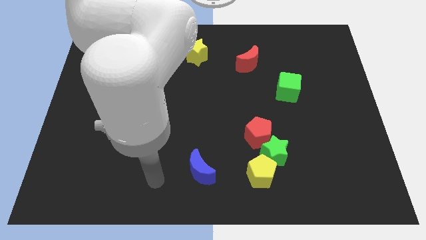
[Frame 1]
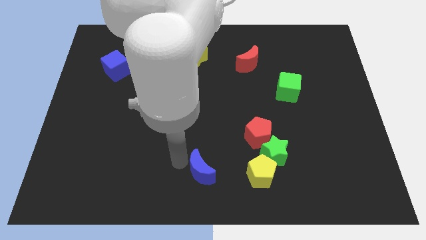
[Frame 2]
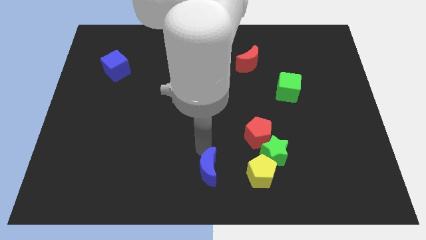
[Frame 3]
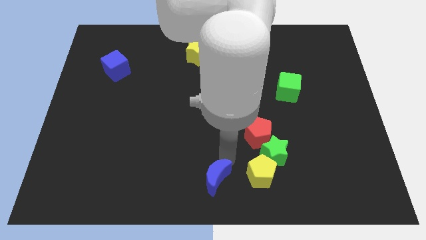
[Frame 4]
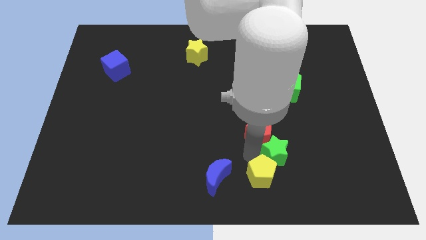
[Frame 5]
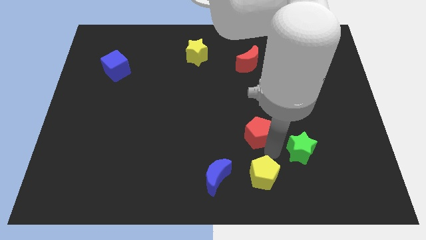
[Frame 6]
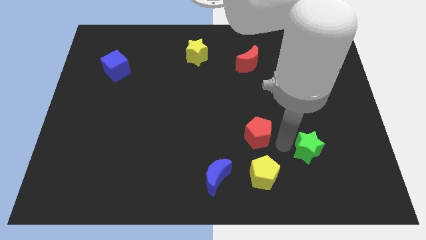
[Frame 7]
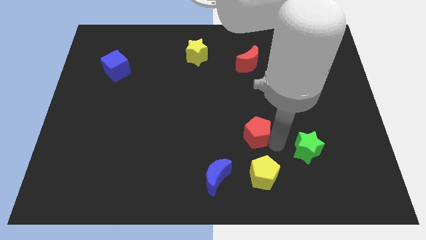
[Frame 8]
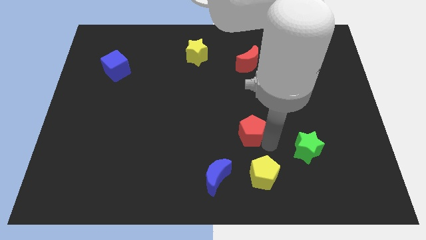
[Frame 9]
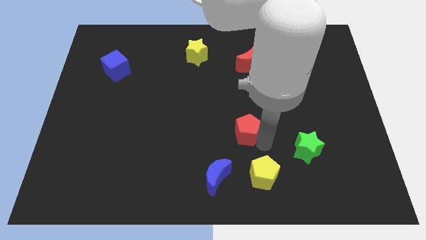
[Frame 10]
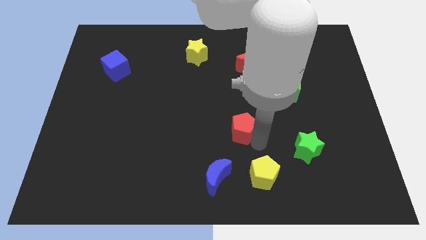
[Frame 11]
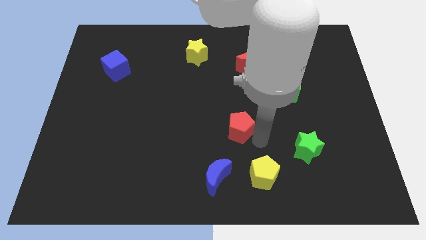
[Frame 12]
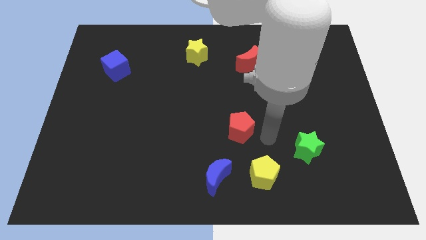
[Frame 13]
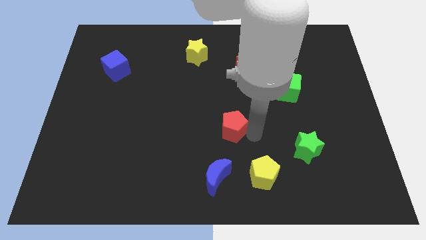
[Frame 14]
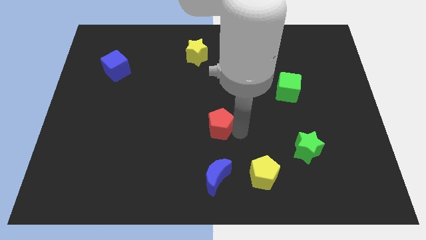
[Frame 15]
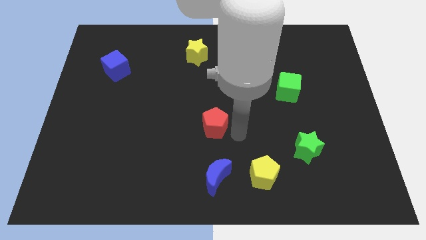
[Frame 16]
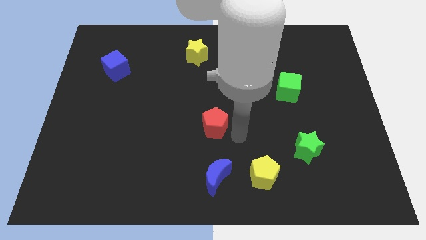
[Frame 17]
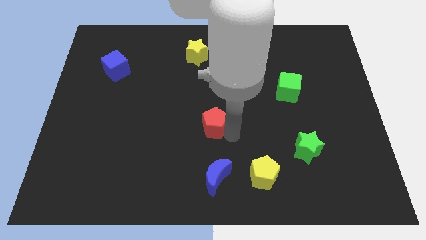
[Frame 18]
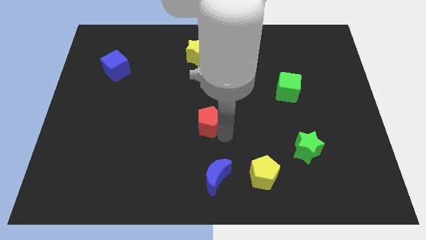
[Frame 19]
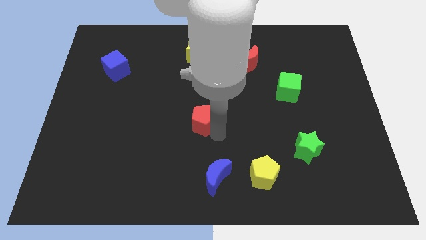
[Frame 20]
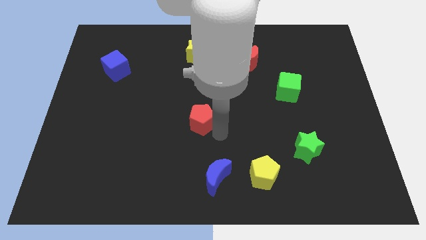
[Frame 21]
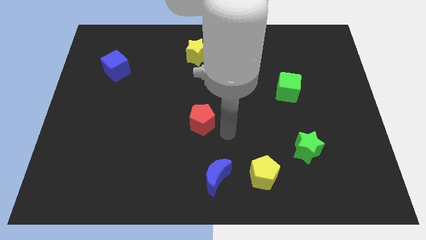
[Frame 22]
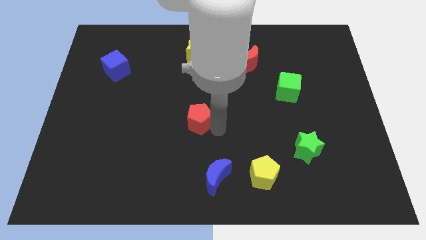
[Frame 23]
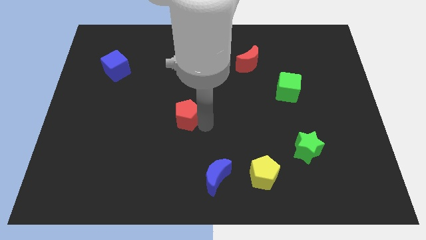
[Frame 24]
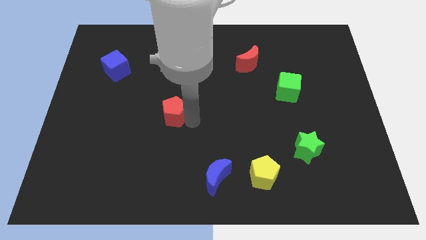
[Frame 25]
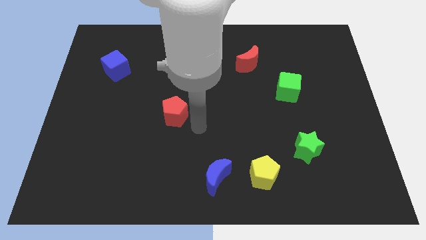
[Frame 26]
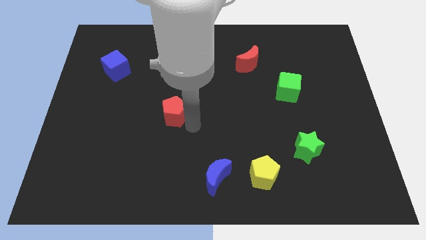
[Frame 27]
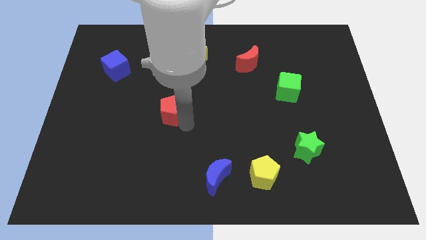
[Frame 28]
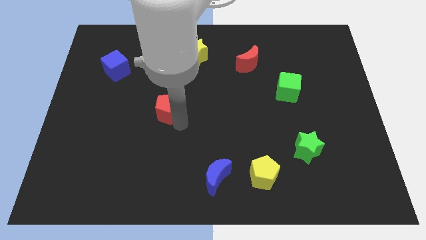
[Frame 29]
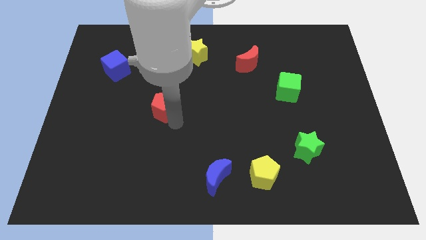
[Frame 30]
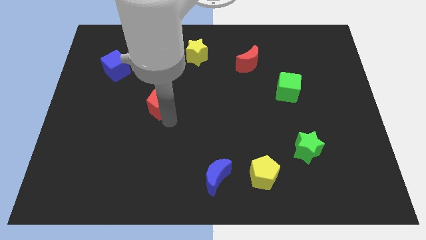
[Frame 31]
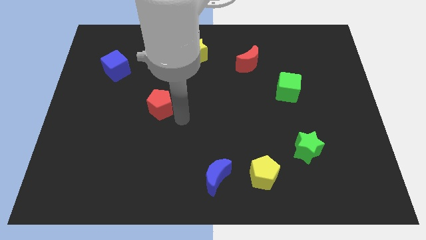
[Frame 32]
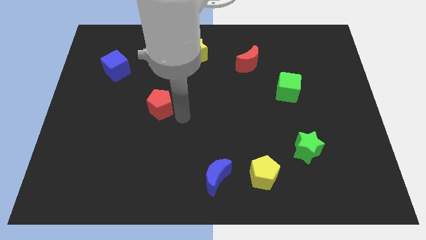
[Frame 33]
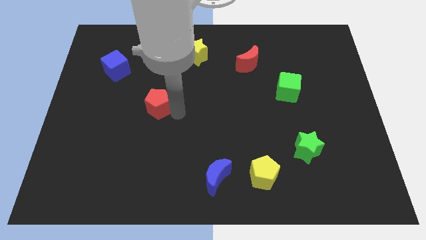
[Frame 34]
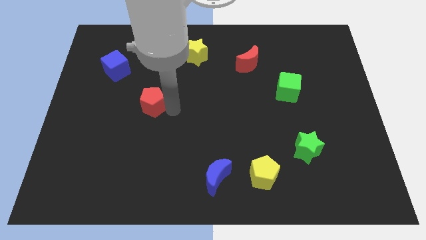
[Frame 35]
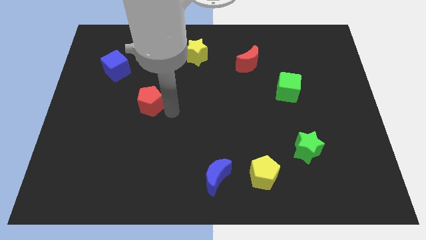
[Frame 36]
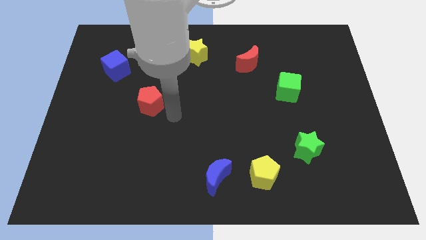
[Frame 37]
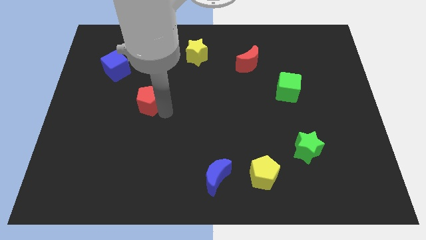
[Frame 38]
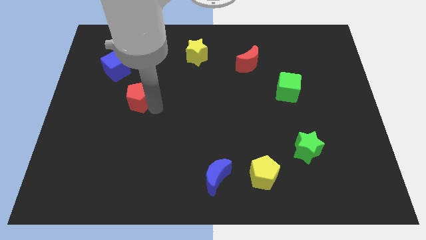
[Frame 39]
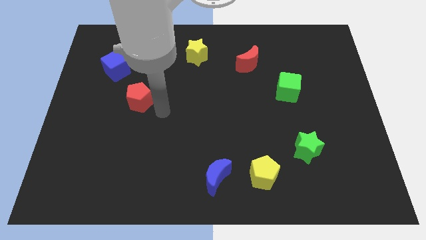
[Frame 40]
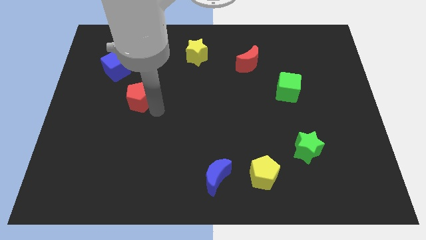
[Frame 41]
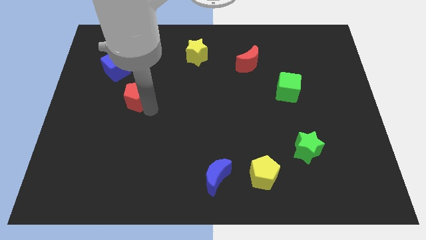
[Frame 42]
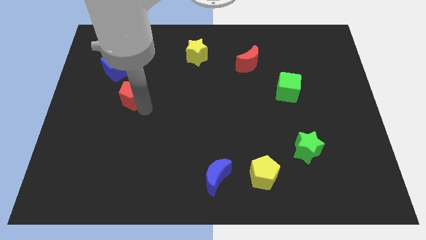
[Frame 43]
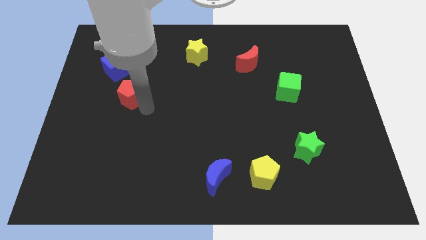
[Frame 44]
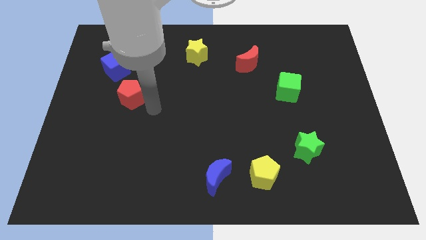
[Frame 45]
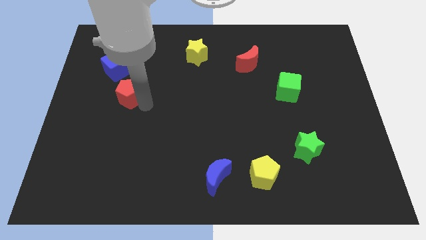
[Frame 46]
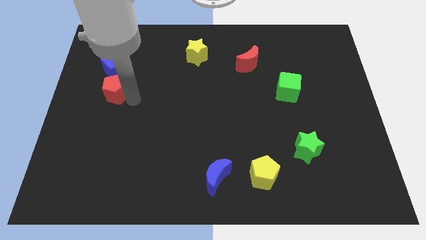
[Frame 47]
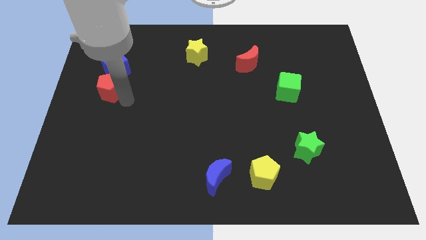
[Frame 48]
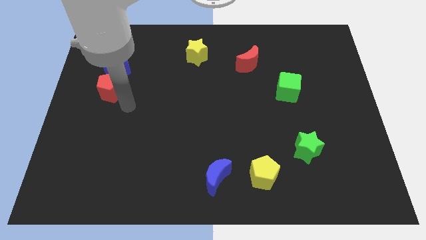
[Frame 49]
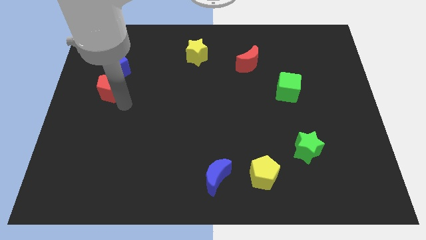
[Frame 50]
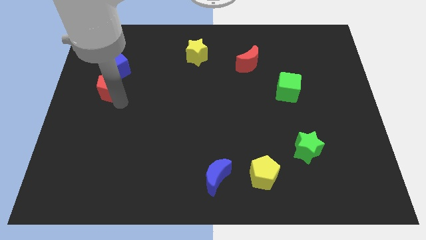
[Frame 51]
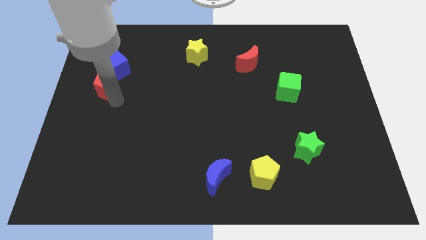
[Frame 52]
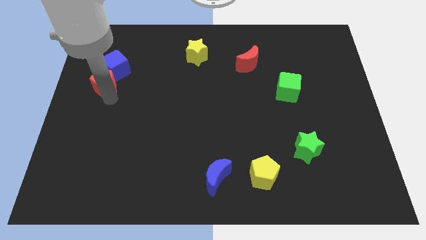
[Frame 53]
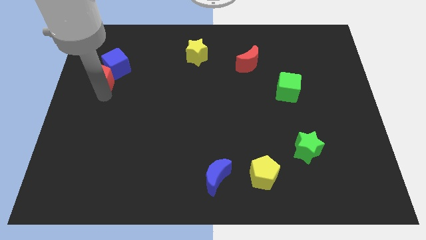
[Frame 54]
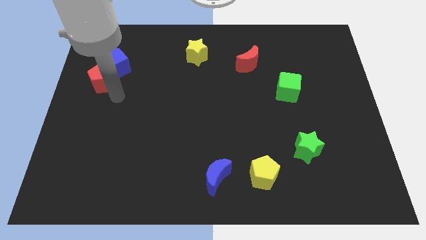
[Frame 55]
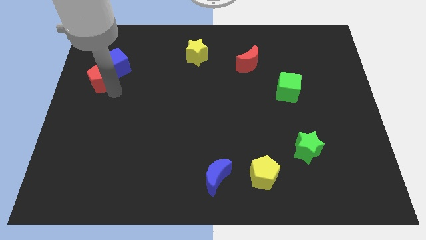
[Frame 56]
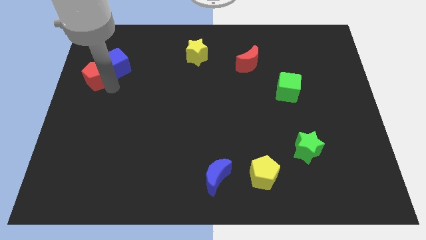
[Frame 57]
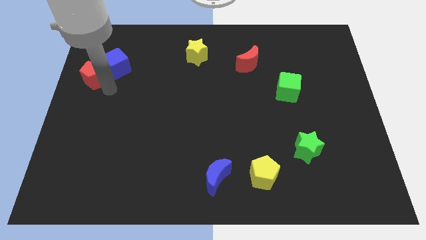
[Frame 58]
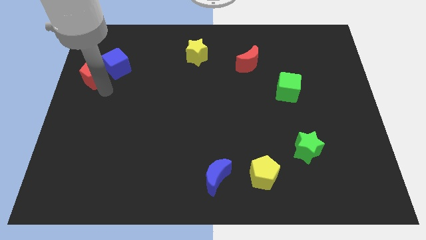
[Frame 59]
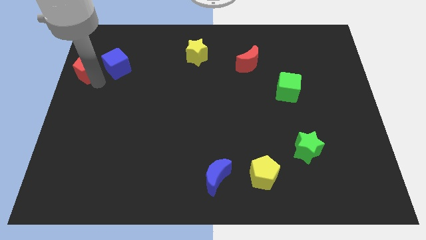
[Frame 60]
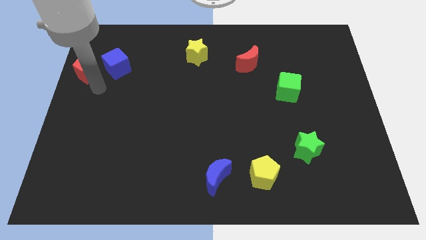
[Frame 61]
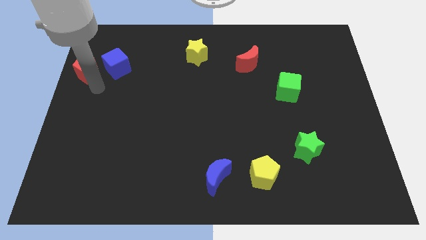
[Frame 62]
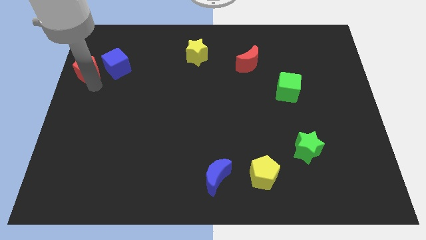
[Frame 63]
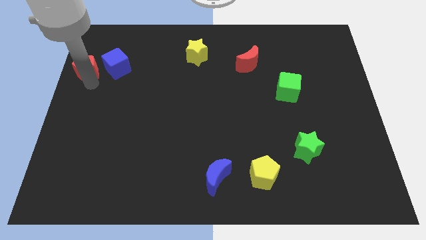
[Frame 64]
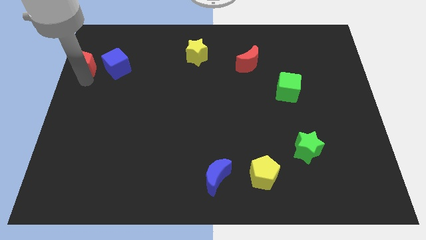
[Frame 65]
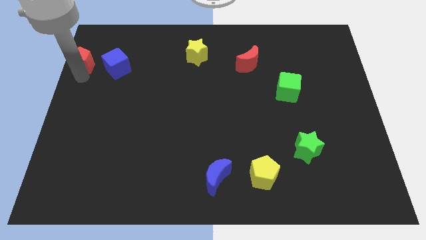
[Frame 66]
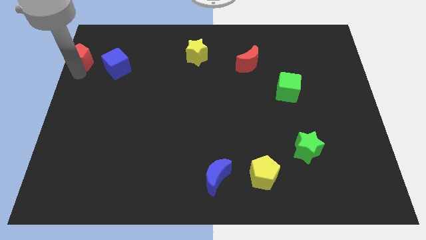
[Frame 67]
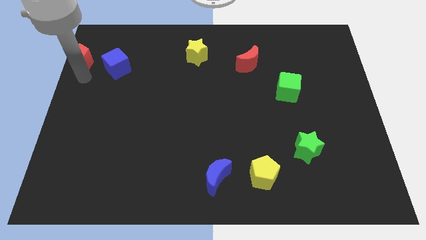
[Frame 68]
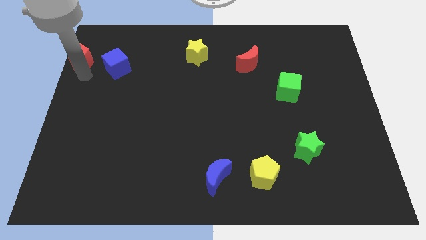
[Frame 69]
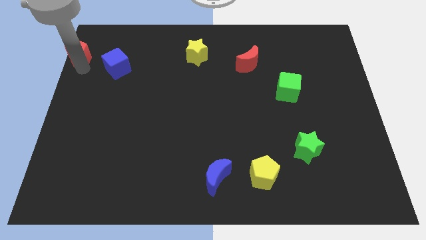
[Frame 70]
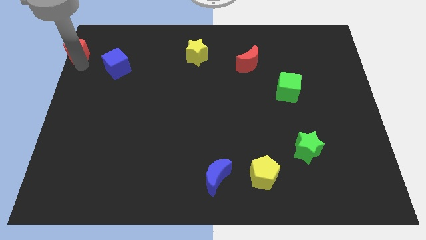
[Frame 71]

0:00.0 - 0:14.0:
slide the red pentagon to the upper left corner

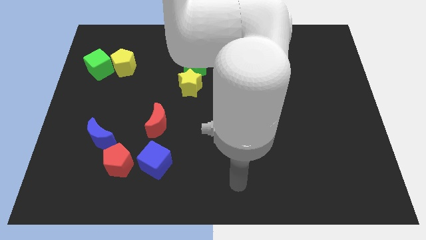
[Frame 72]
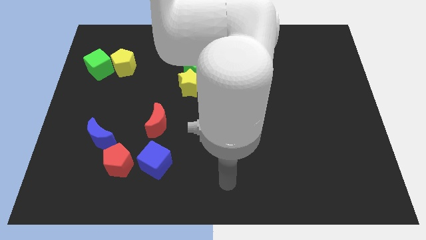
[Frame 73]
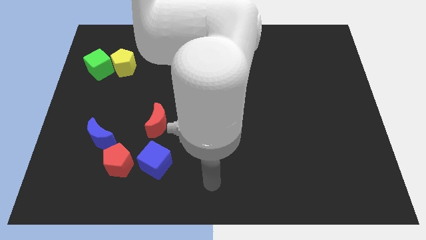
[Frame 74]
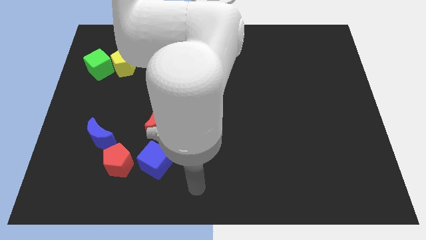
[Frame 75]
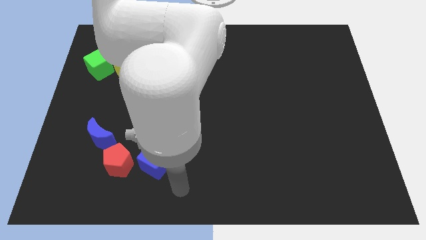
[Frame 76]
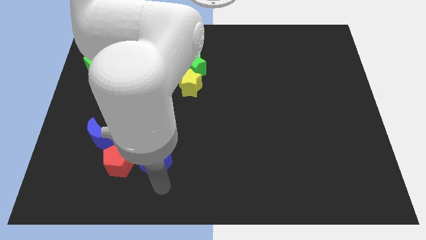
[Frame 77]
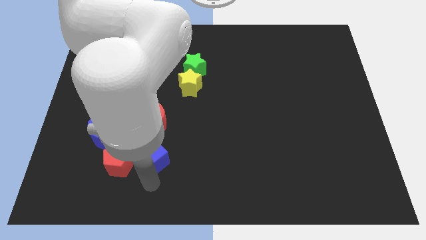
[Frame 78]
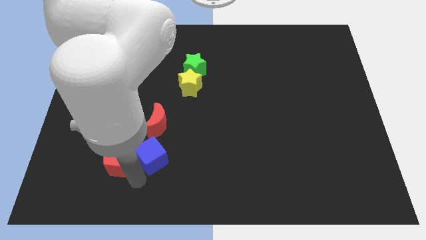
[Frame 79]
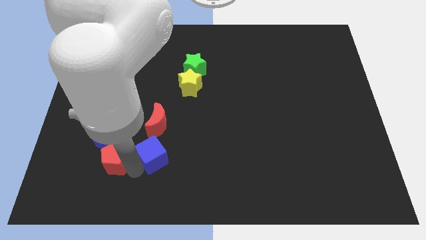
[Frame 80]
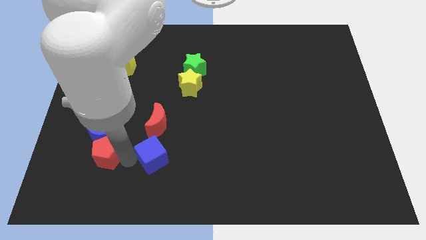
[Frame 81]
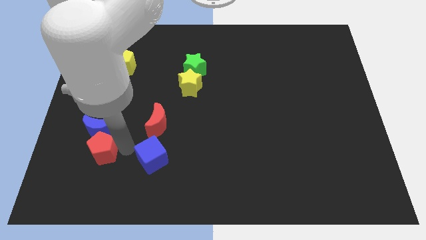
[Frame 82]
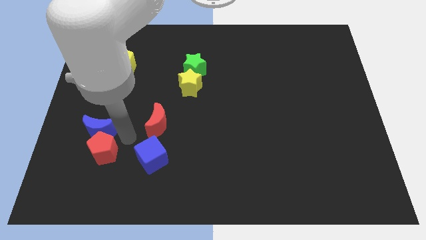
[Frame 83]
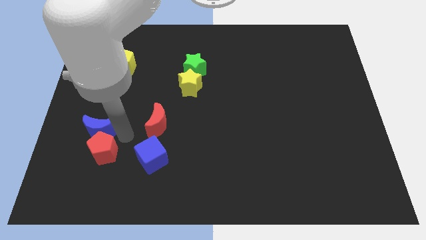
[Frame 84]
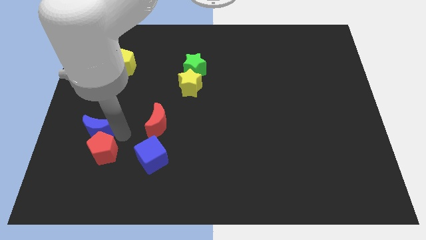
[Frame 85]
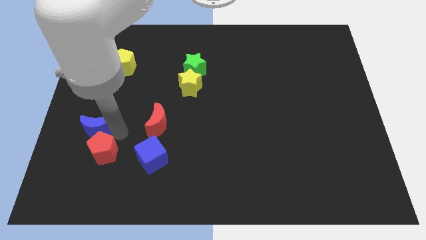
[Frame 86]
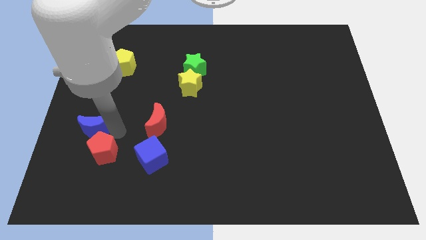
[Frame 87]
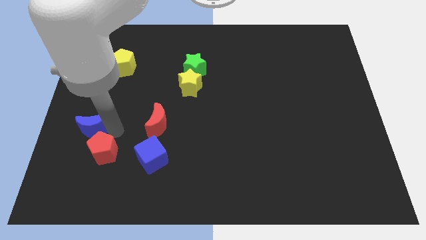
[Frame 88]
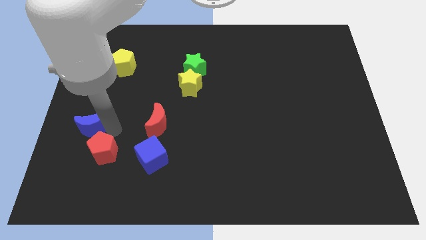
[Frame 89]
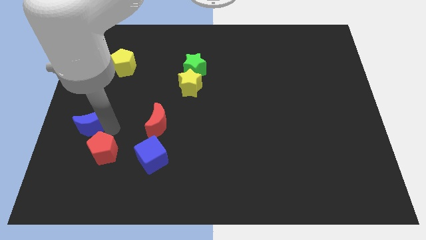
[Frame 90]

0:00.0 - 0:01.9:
slide the blue moon to the left side
